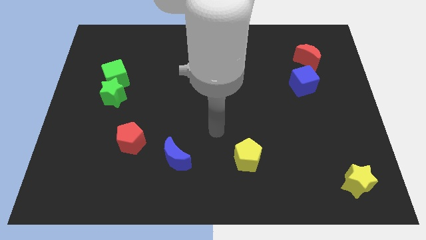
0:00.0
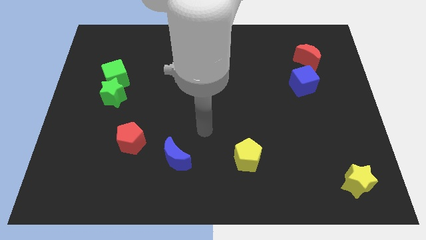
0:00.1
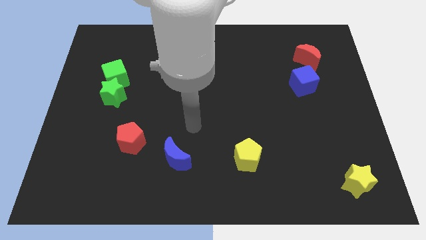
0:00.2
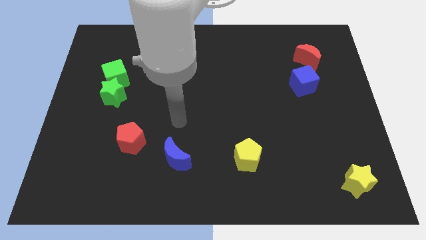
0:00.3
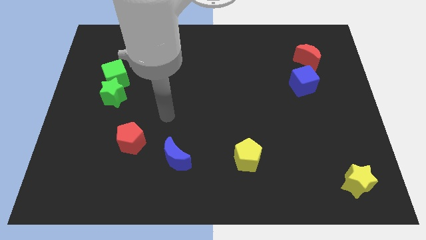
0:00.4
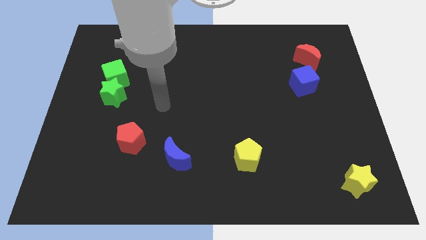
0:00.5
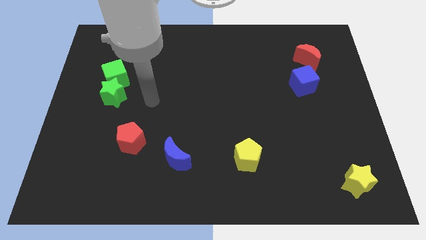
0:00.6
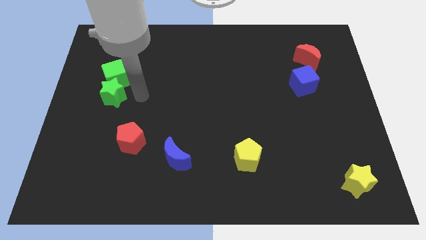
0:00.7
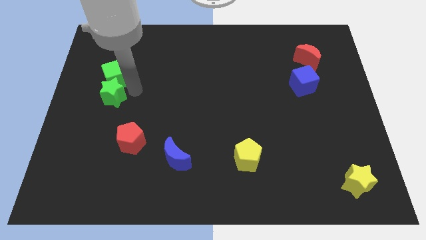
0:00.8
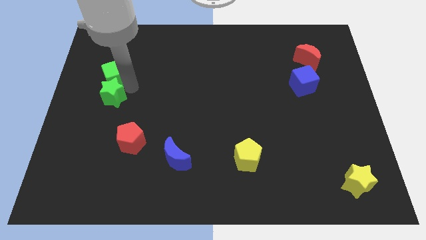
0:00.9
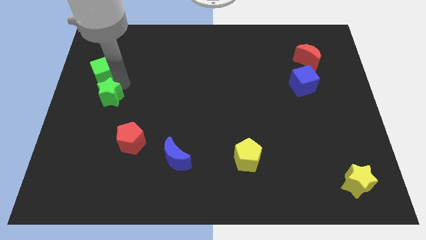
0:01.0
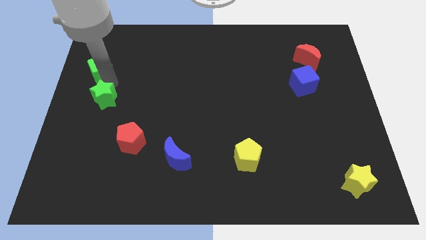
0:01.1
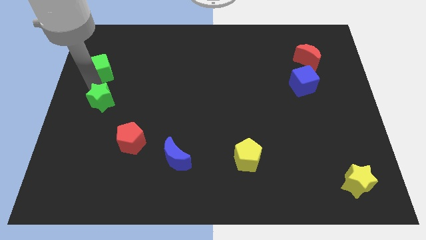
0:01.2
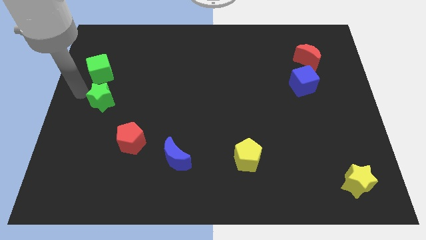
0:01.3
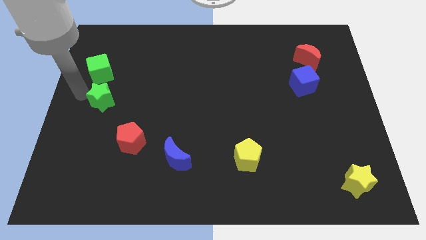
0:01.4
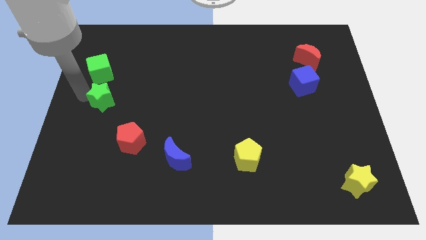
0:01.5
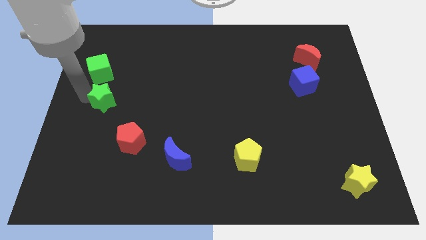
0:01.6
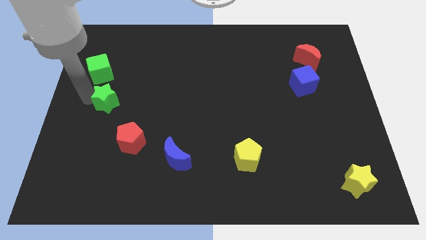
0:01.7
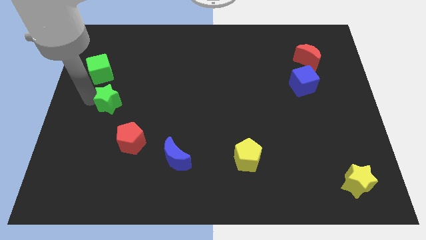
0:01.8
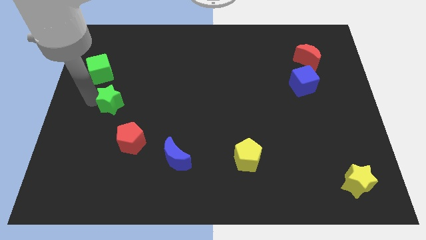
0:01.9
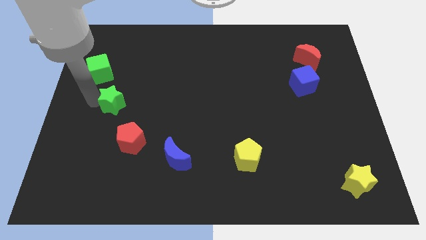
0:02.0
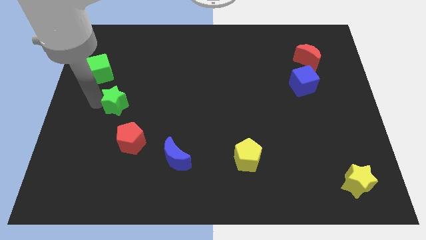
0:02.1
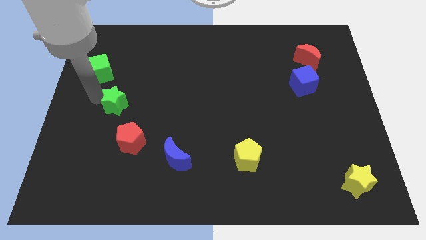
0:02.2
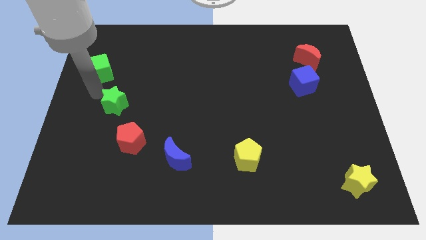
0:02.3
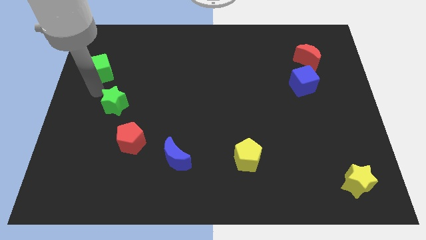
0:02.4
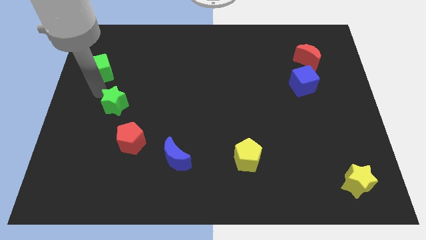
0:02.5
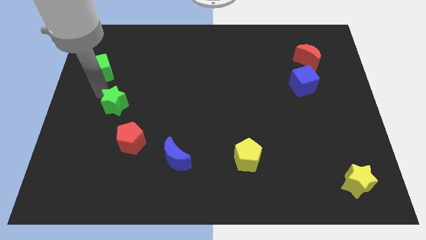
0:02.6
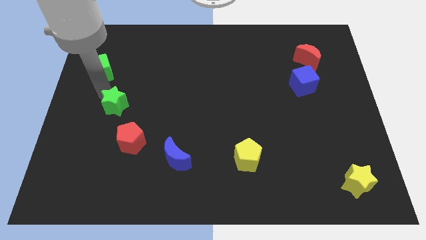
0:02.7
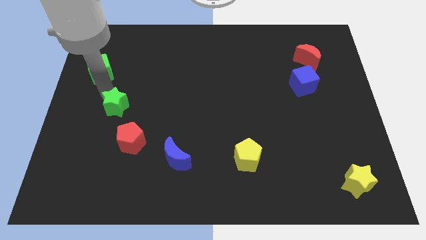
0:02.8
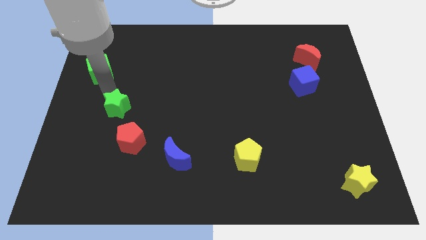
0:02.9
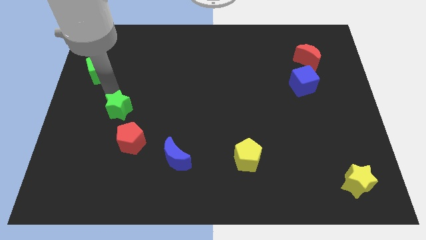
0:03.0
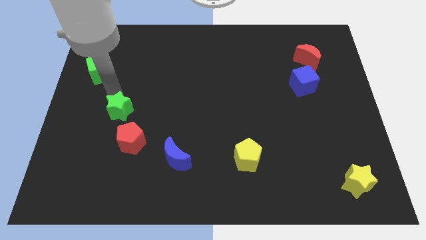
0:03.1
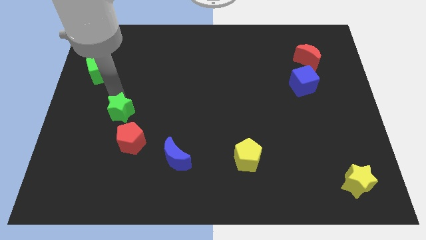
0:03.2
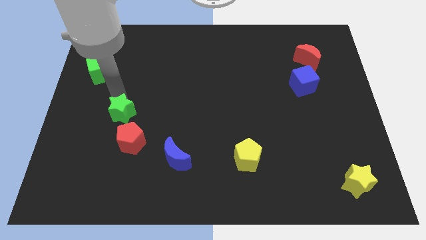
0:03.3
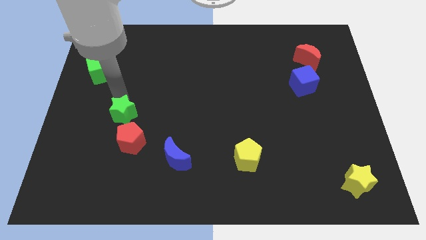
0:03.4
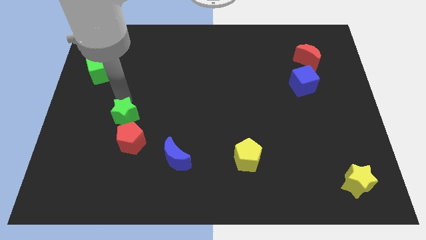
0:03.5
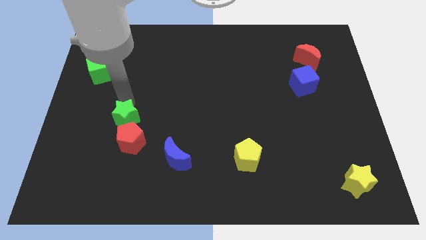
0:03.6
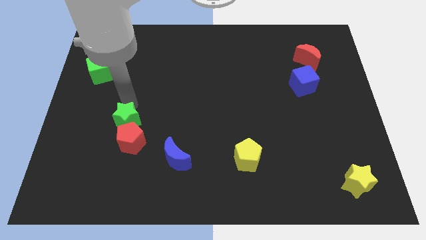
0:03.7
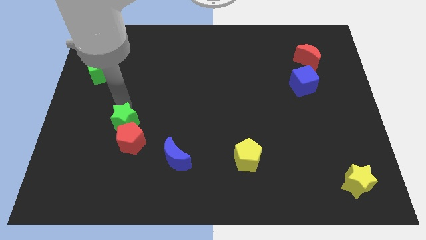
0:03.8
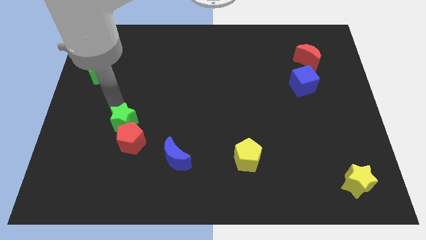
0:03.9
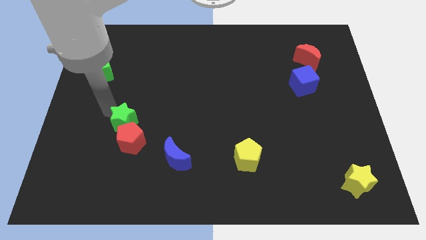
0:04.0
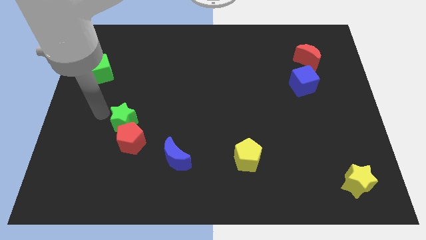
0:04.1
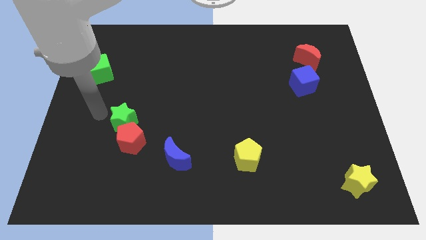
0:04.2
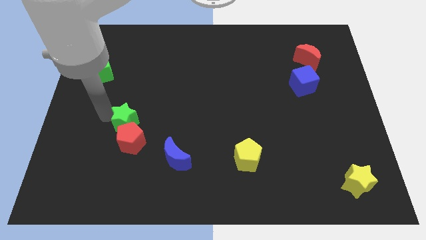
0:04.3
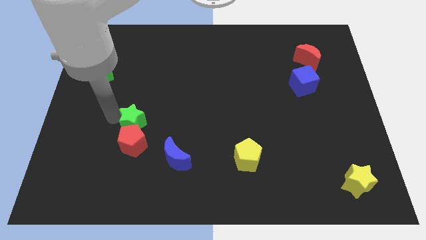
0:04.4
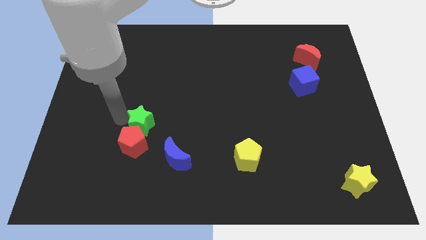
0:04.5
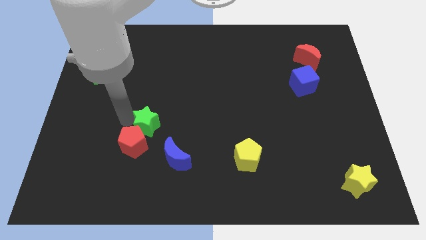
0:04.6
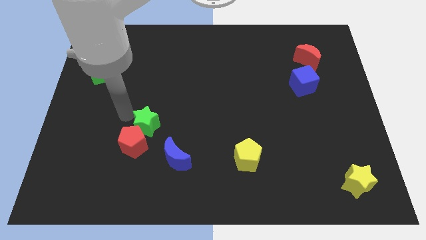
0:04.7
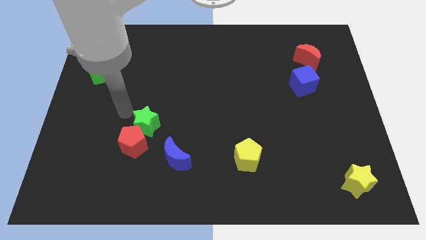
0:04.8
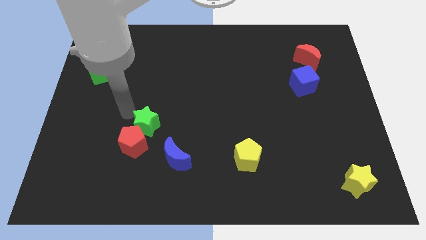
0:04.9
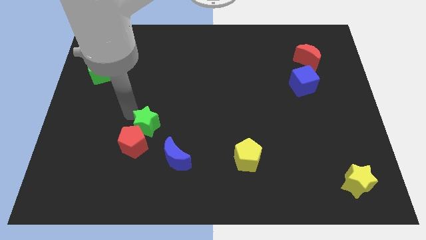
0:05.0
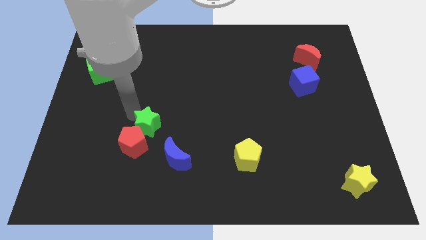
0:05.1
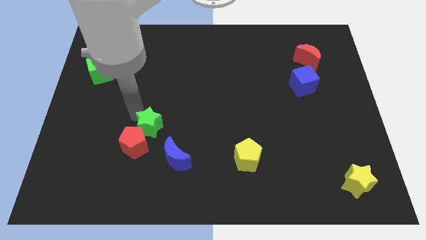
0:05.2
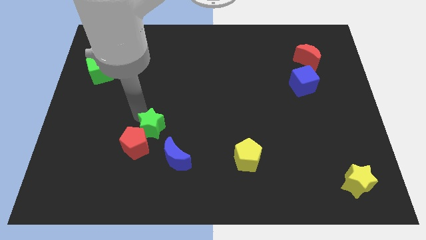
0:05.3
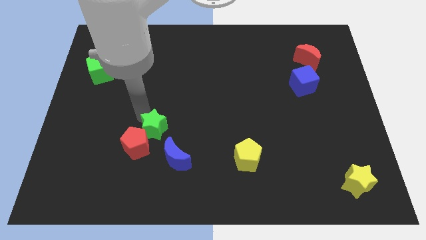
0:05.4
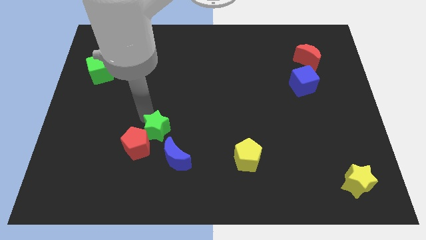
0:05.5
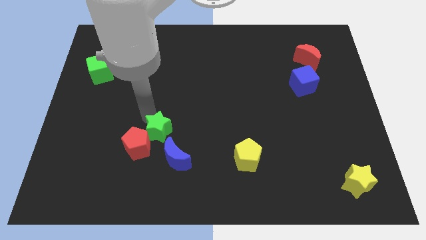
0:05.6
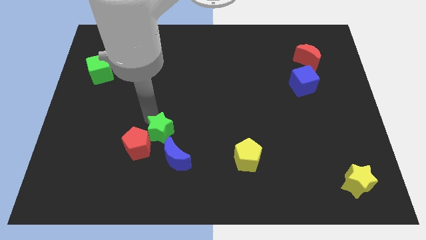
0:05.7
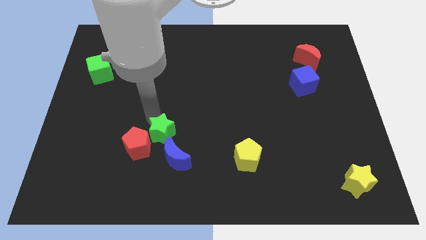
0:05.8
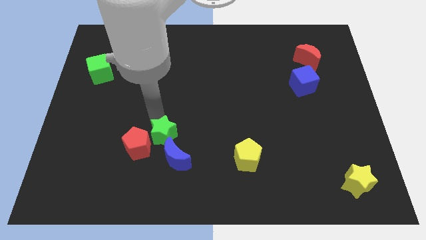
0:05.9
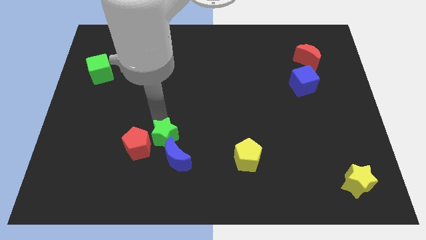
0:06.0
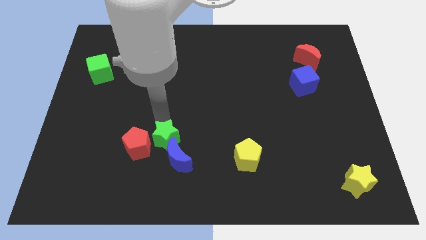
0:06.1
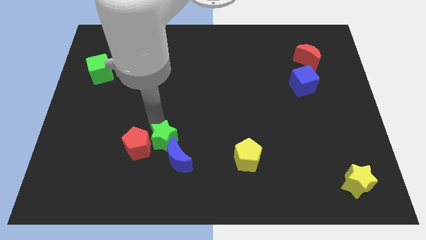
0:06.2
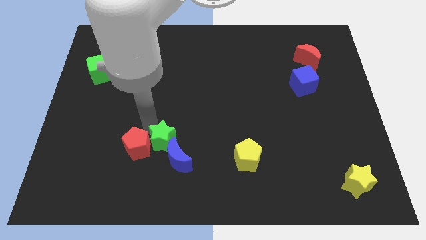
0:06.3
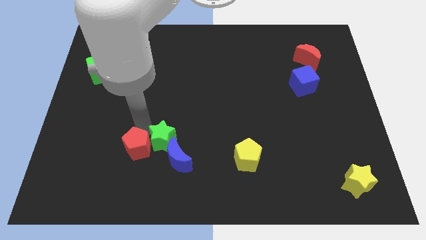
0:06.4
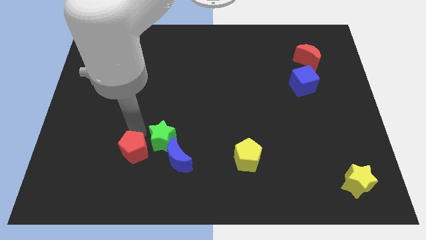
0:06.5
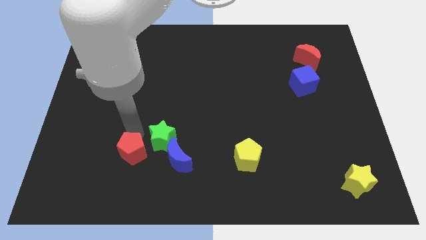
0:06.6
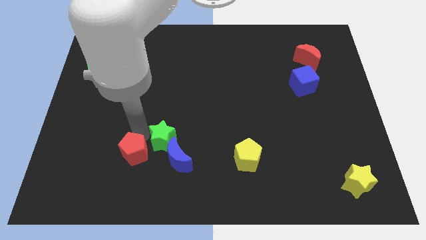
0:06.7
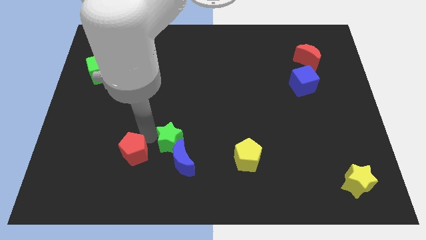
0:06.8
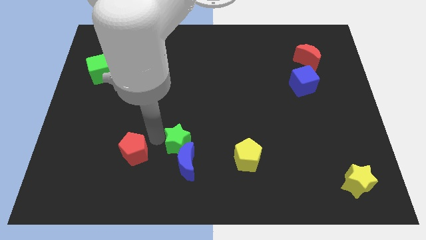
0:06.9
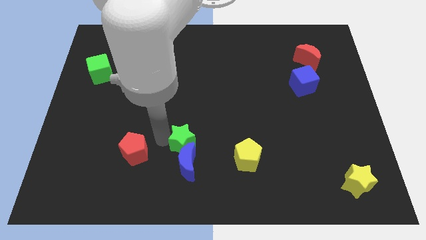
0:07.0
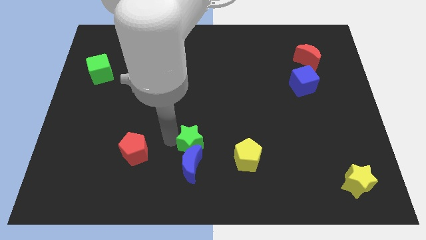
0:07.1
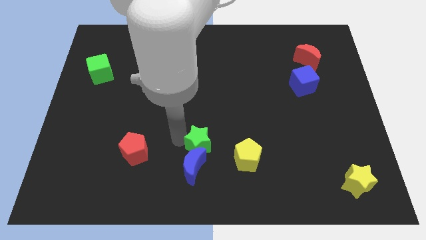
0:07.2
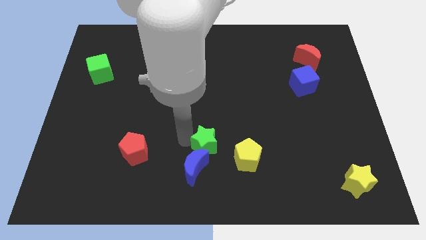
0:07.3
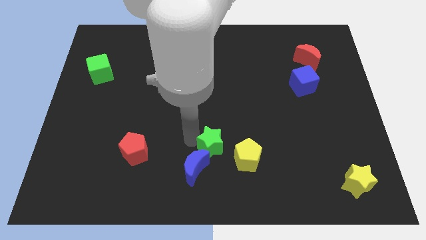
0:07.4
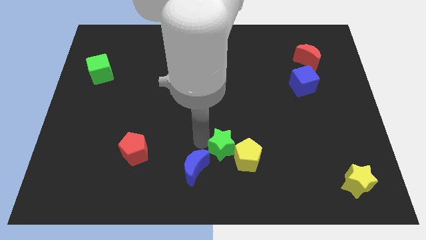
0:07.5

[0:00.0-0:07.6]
move the green star close to the yellow pentagon

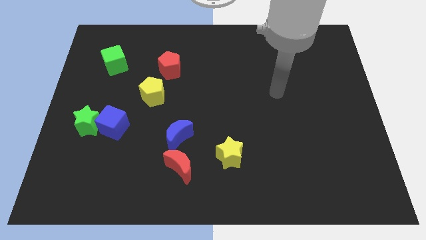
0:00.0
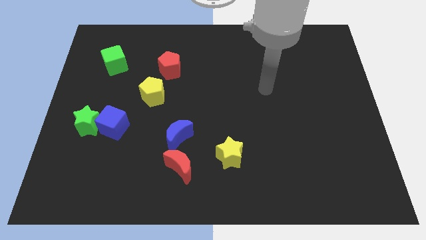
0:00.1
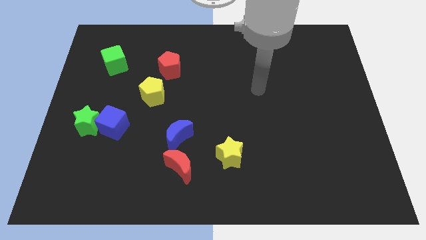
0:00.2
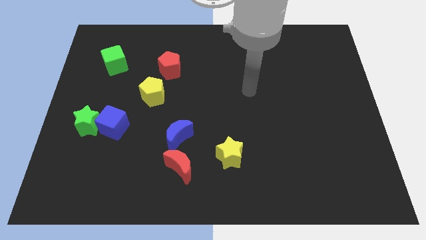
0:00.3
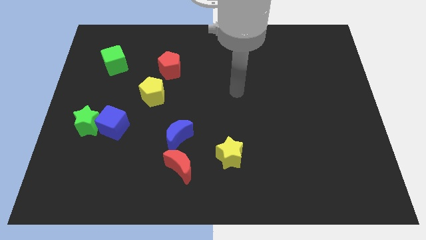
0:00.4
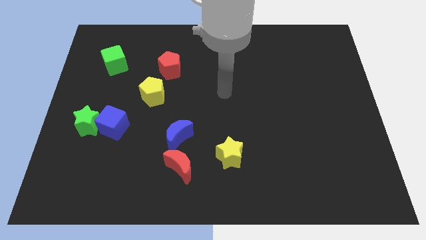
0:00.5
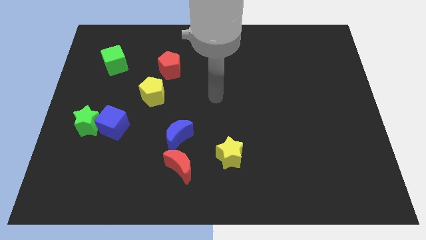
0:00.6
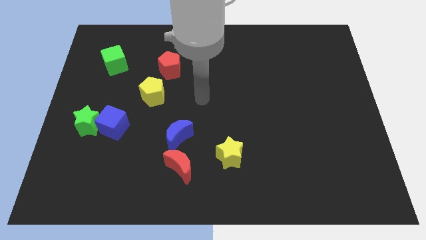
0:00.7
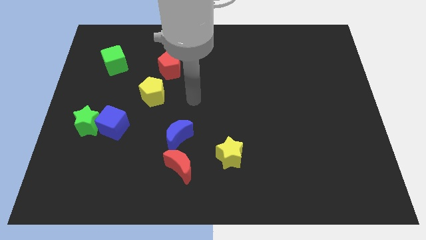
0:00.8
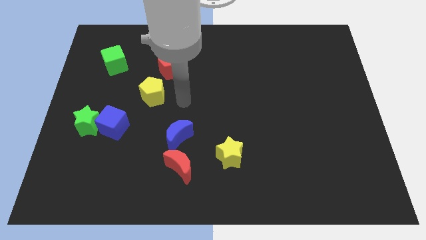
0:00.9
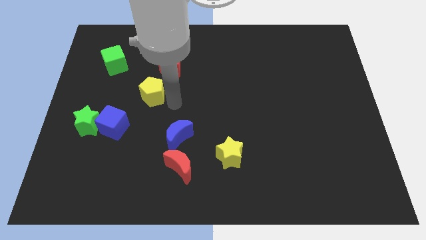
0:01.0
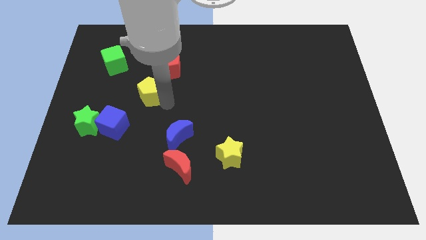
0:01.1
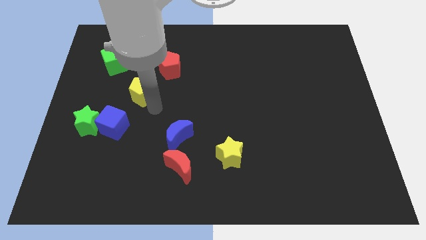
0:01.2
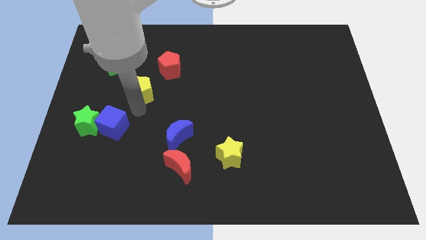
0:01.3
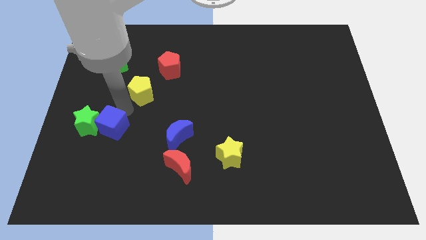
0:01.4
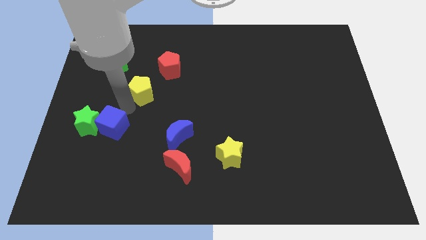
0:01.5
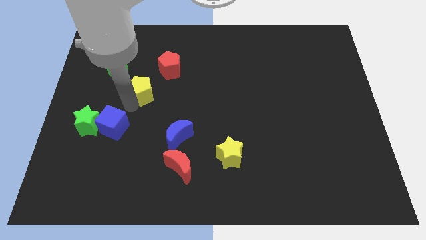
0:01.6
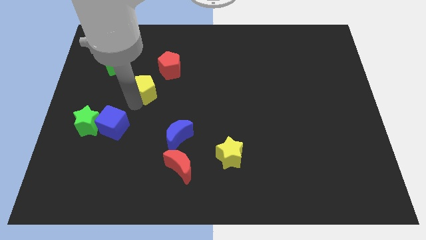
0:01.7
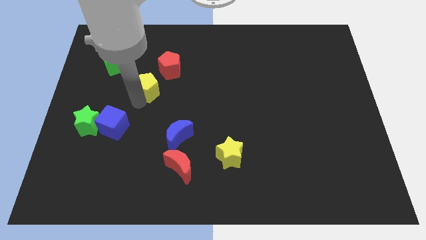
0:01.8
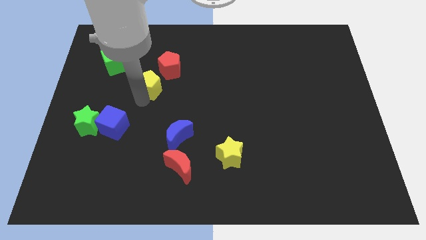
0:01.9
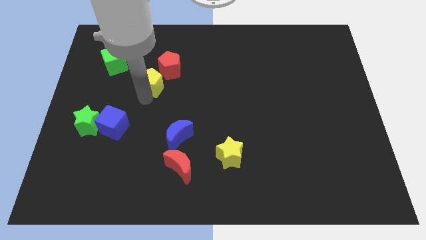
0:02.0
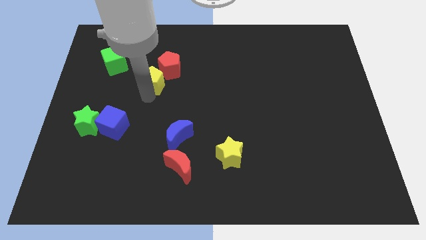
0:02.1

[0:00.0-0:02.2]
put the yellow pentagon close to the red pentagon
